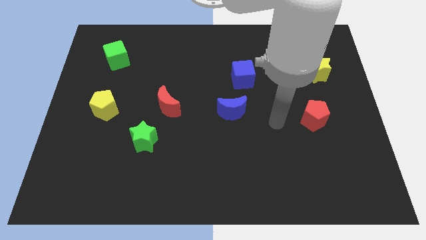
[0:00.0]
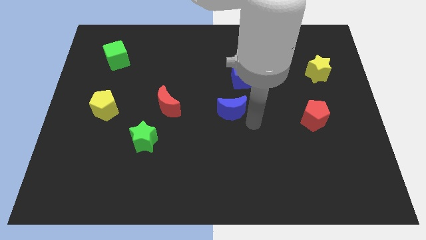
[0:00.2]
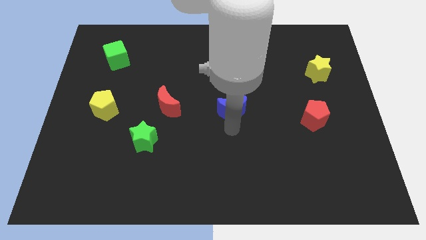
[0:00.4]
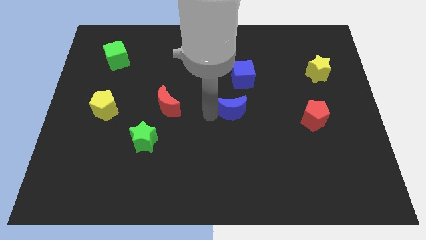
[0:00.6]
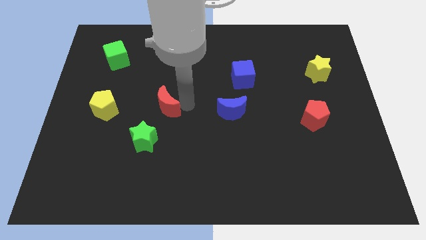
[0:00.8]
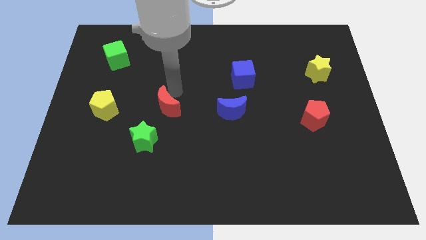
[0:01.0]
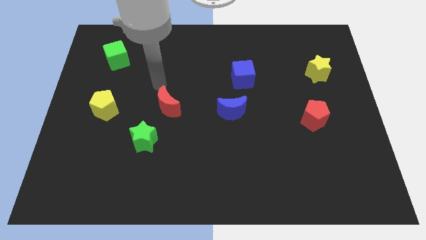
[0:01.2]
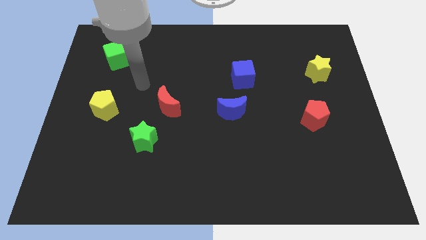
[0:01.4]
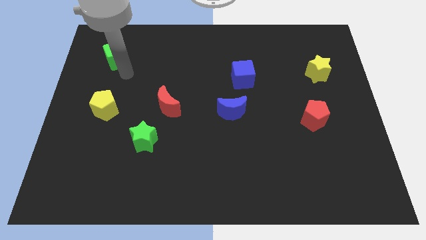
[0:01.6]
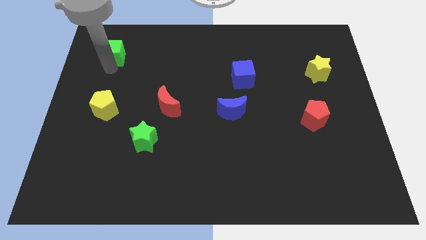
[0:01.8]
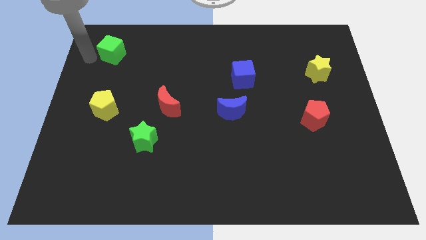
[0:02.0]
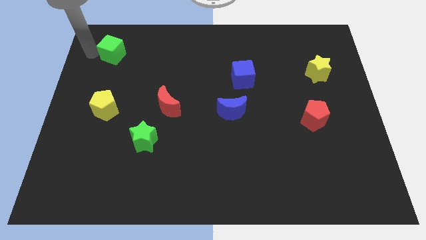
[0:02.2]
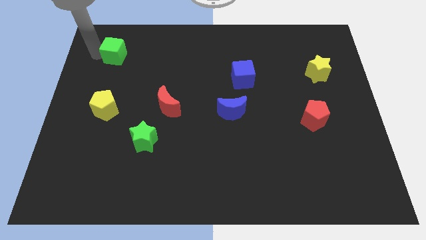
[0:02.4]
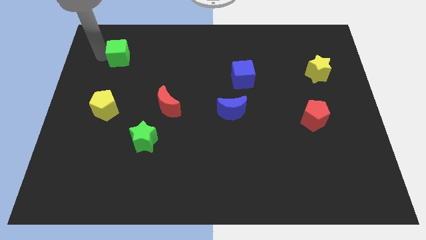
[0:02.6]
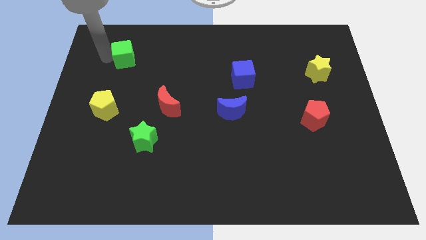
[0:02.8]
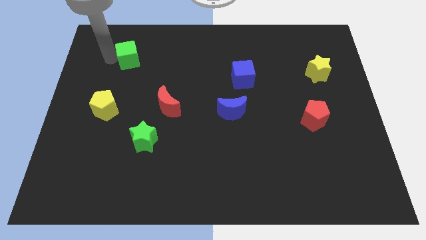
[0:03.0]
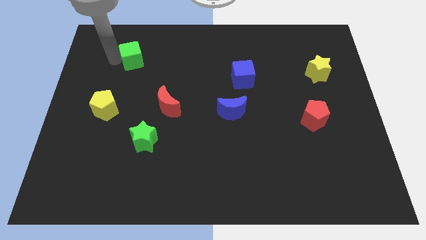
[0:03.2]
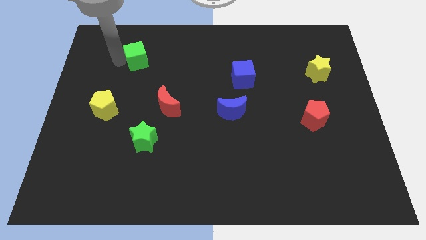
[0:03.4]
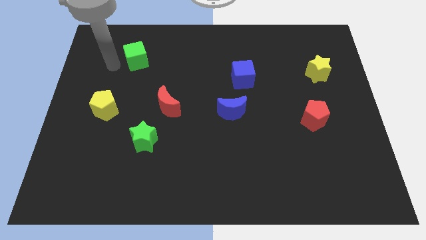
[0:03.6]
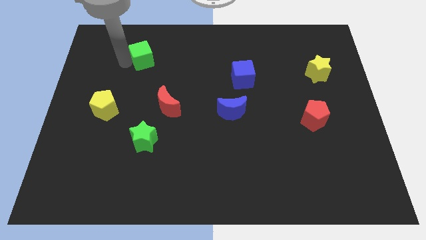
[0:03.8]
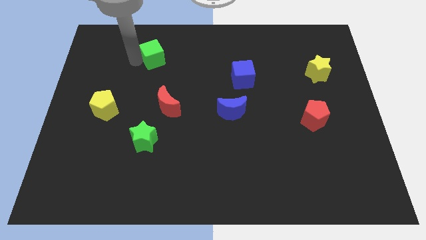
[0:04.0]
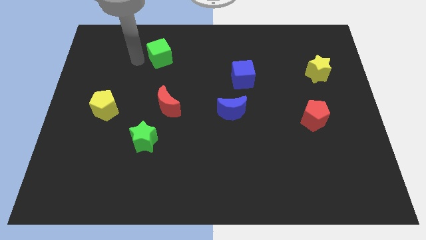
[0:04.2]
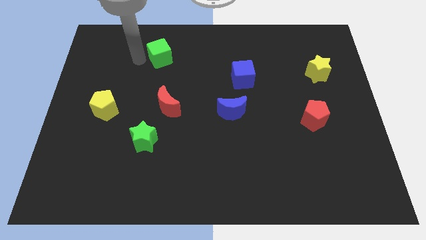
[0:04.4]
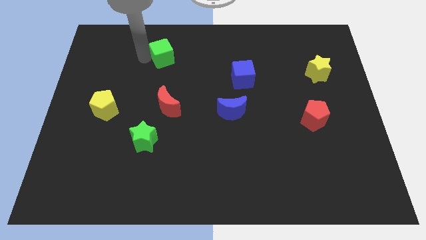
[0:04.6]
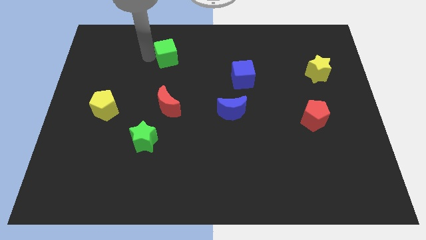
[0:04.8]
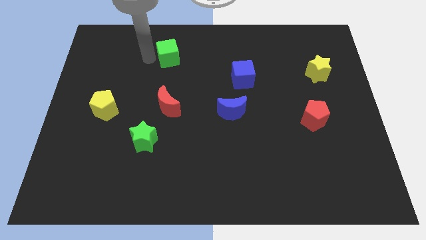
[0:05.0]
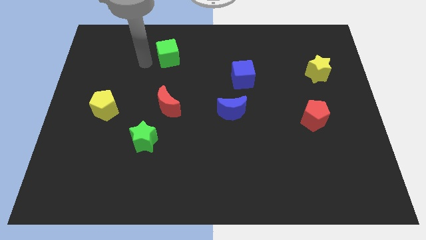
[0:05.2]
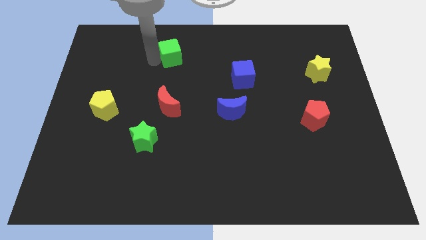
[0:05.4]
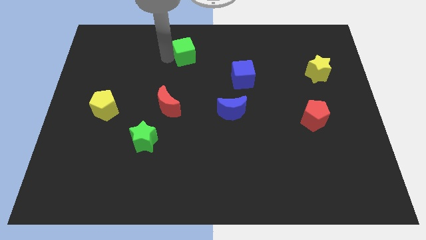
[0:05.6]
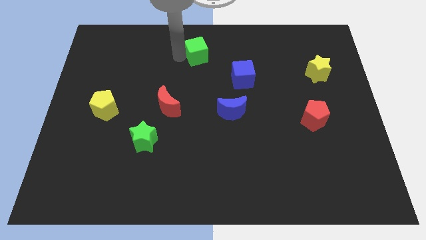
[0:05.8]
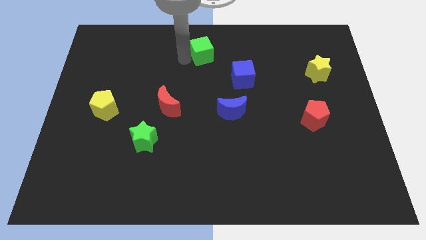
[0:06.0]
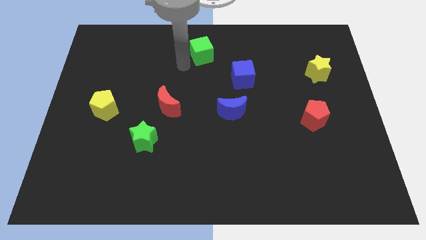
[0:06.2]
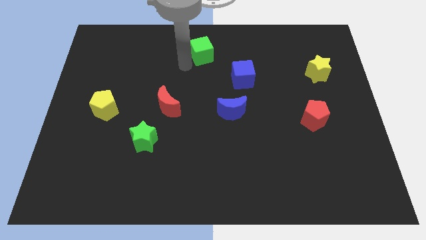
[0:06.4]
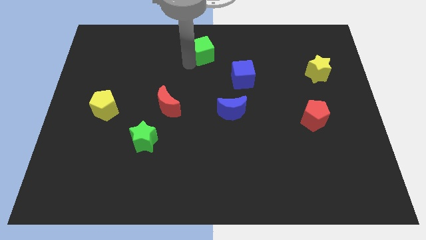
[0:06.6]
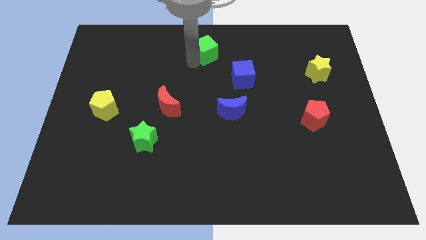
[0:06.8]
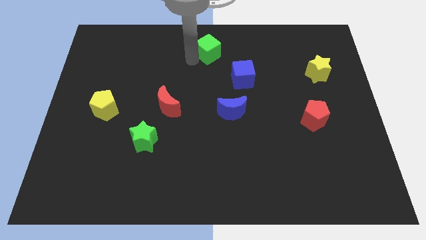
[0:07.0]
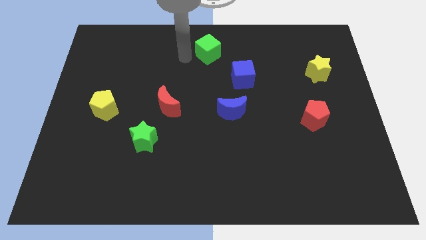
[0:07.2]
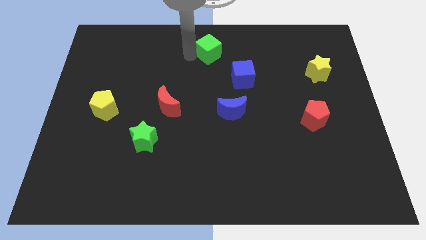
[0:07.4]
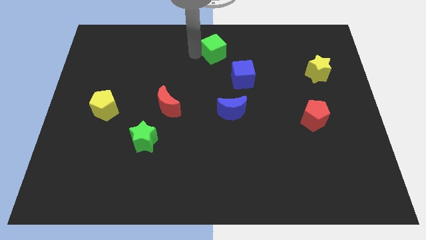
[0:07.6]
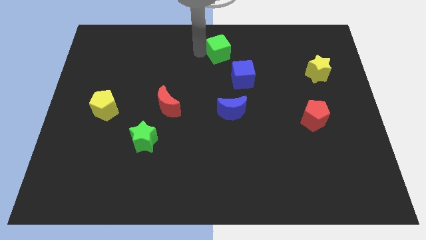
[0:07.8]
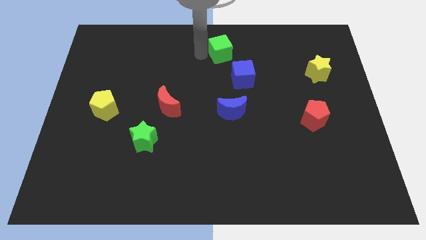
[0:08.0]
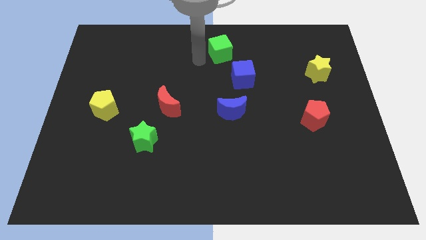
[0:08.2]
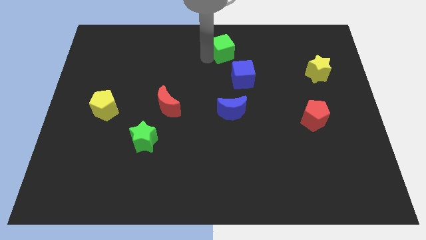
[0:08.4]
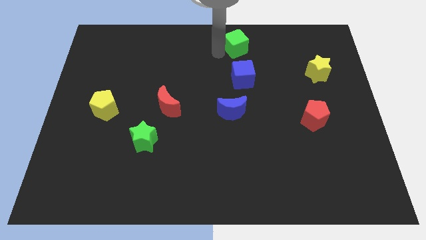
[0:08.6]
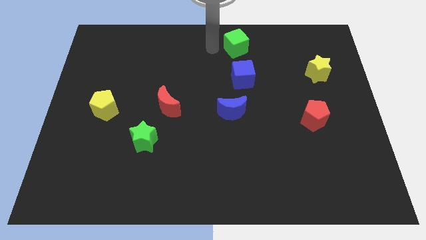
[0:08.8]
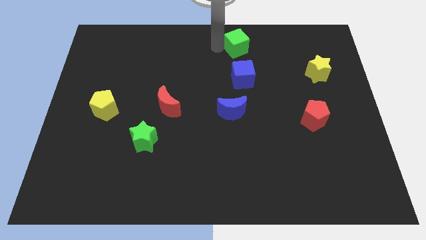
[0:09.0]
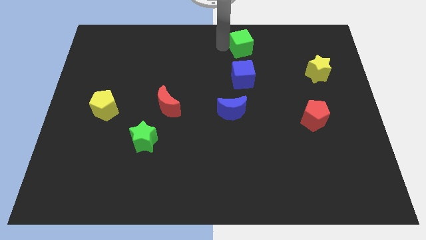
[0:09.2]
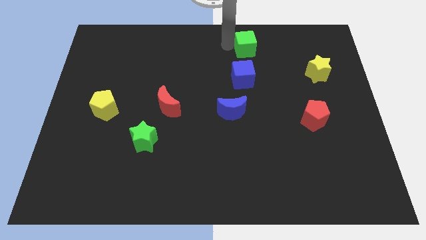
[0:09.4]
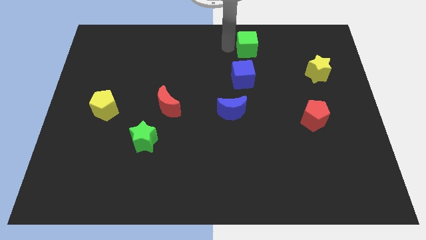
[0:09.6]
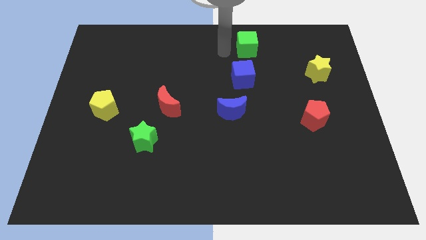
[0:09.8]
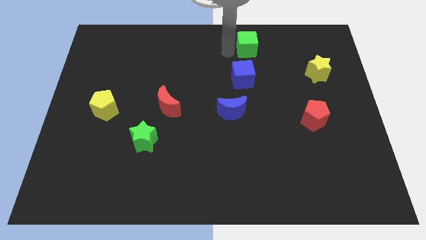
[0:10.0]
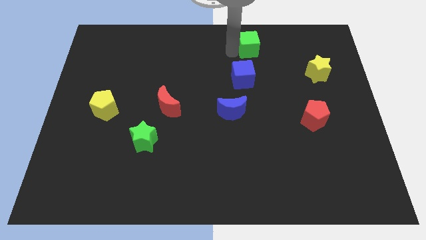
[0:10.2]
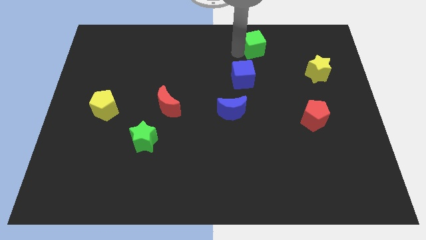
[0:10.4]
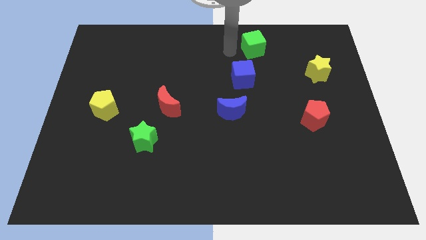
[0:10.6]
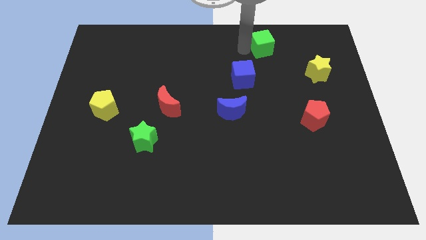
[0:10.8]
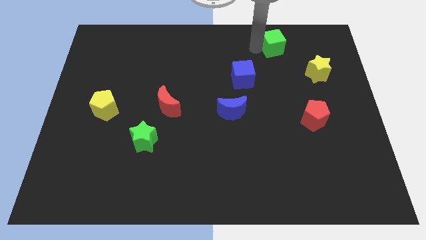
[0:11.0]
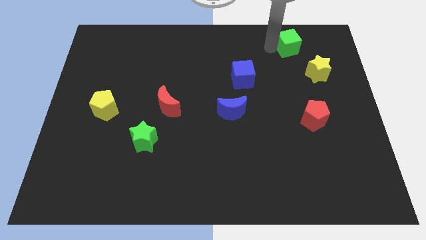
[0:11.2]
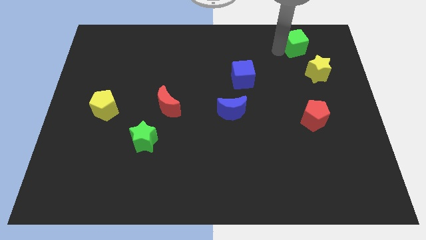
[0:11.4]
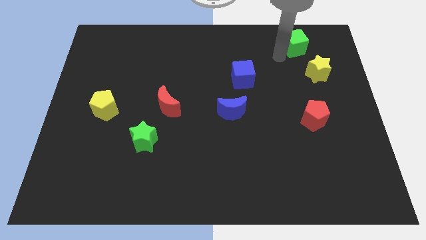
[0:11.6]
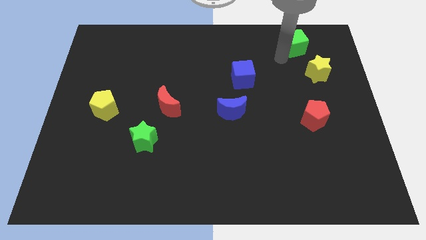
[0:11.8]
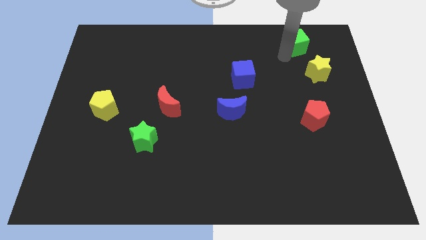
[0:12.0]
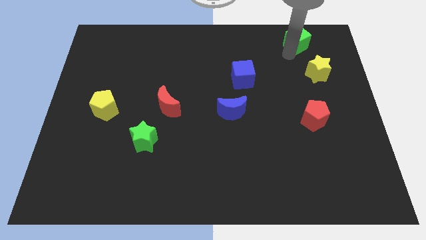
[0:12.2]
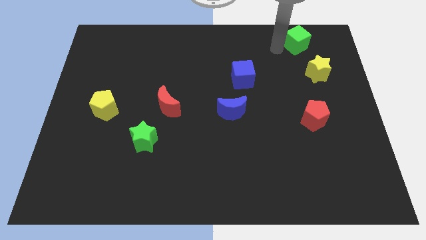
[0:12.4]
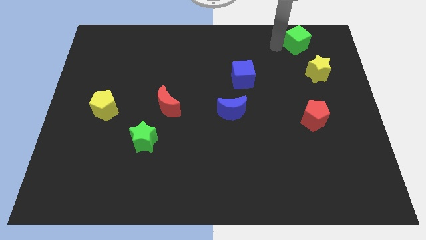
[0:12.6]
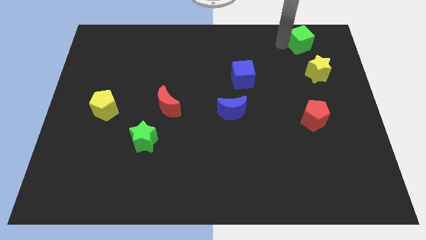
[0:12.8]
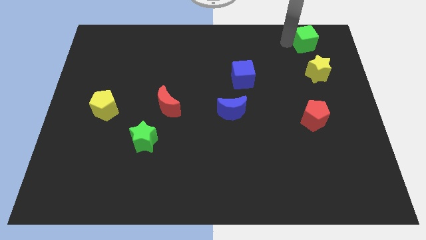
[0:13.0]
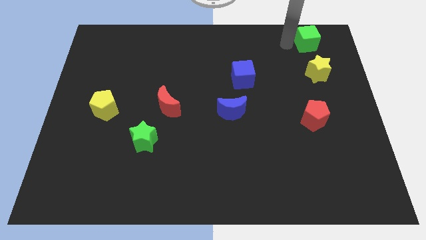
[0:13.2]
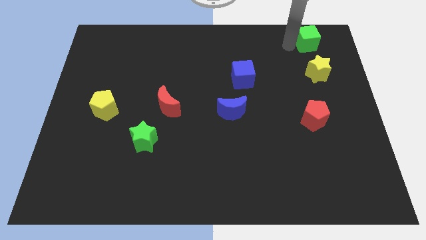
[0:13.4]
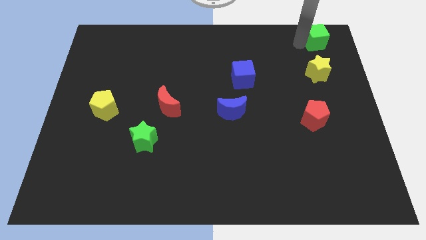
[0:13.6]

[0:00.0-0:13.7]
move the green cube to the top right of the board

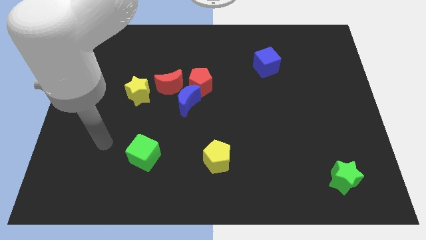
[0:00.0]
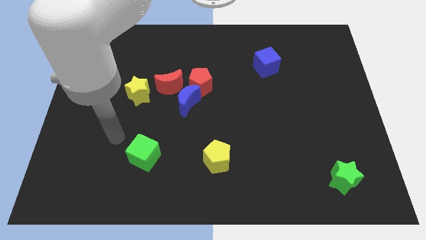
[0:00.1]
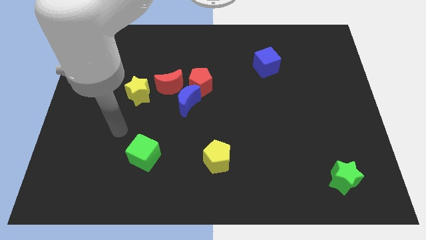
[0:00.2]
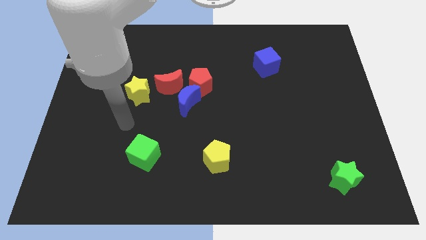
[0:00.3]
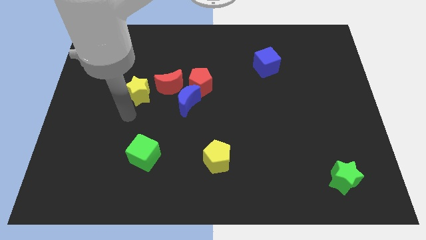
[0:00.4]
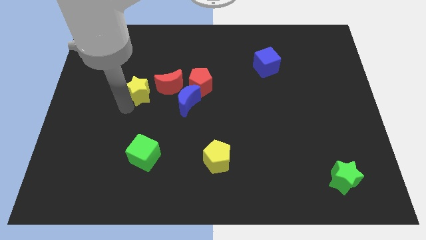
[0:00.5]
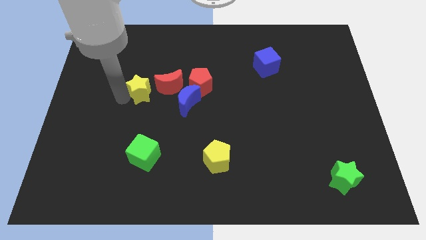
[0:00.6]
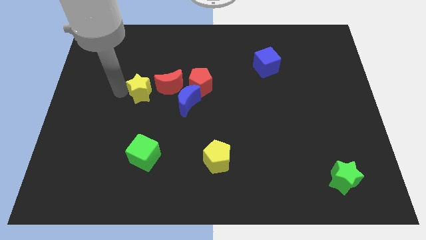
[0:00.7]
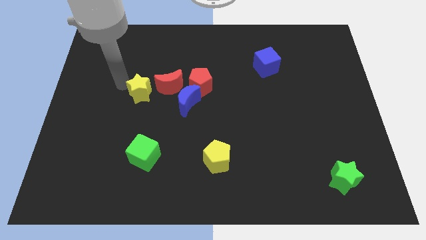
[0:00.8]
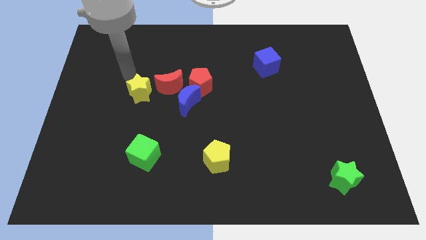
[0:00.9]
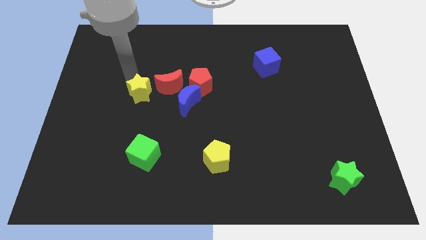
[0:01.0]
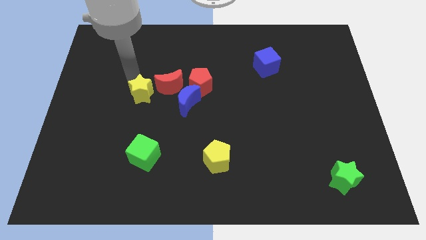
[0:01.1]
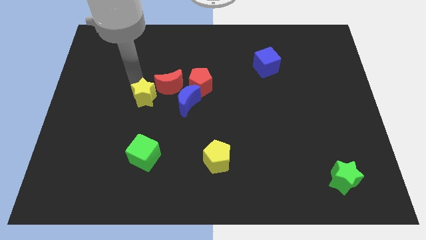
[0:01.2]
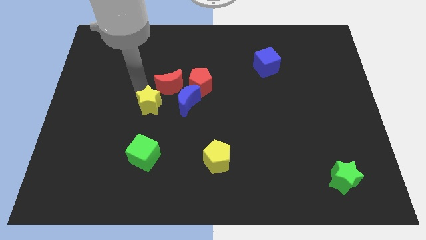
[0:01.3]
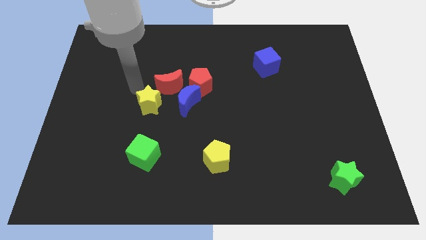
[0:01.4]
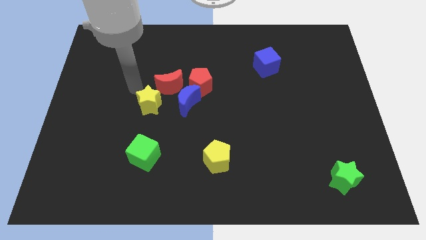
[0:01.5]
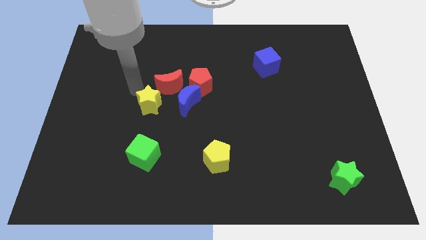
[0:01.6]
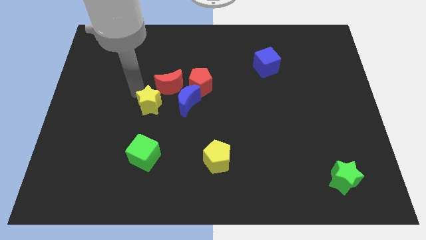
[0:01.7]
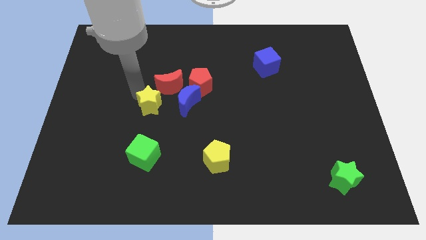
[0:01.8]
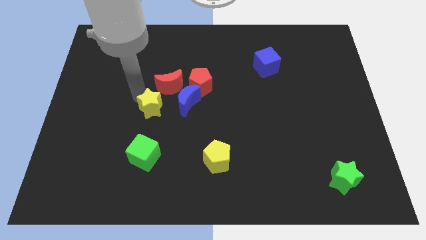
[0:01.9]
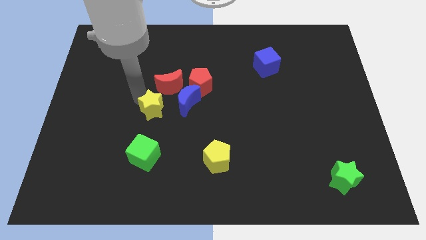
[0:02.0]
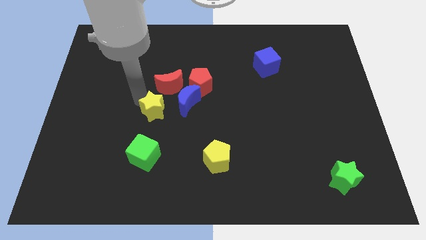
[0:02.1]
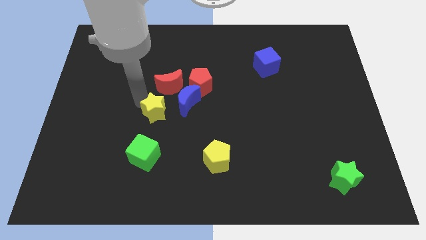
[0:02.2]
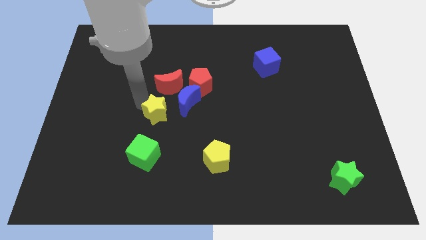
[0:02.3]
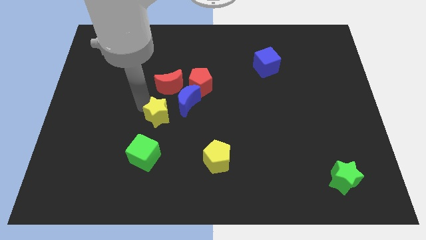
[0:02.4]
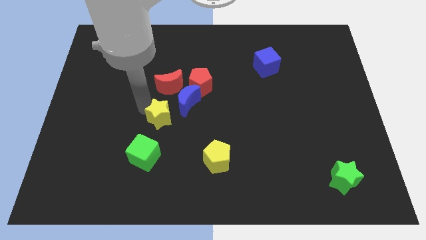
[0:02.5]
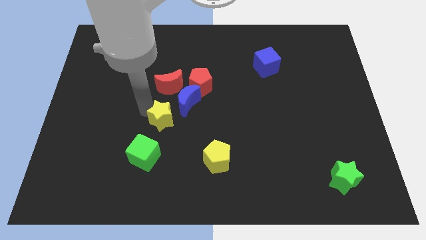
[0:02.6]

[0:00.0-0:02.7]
move the yellow star to the middle
